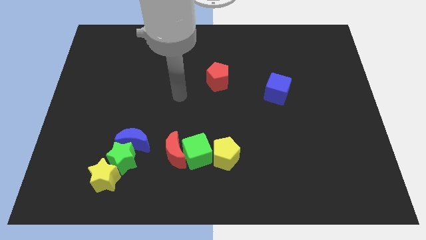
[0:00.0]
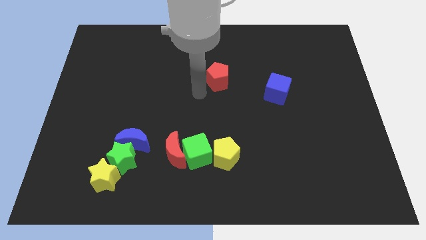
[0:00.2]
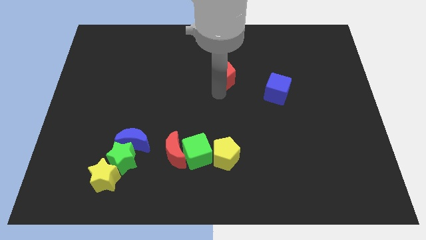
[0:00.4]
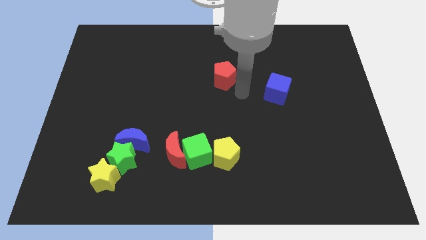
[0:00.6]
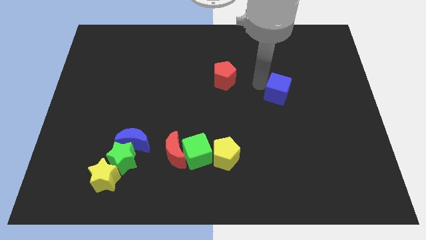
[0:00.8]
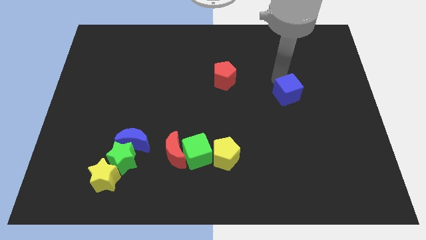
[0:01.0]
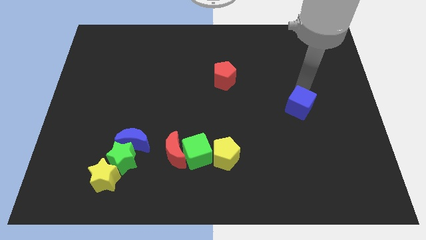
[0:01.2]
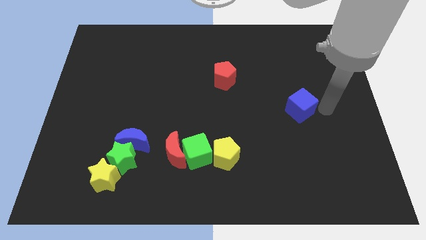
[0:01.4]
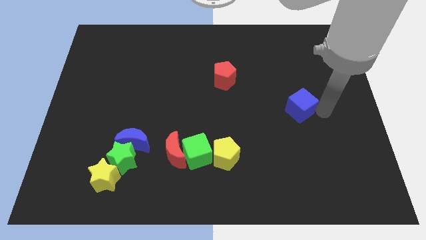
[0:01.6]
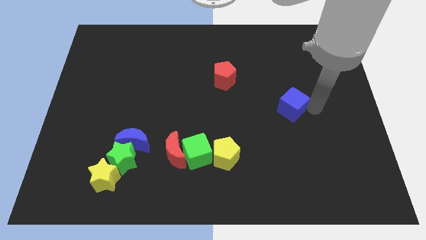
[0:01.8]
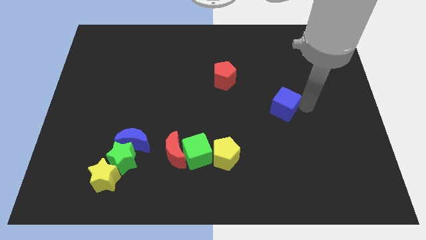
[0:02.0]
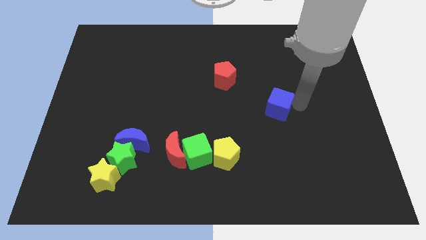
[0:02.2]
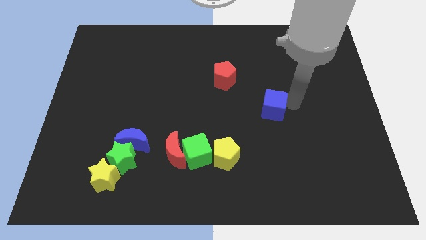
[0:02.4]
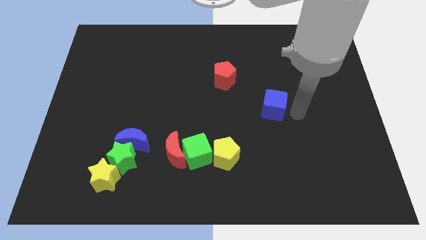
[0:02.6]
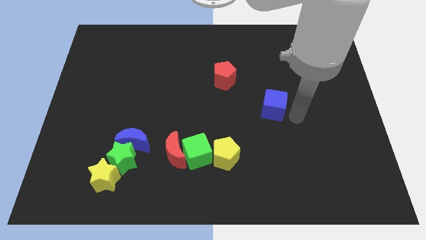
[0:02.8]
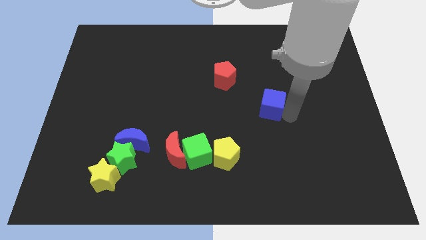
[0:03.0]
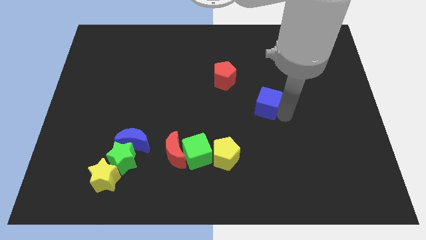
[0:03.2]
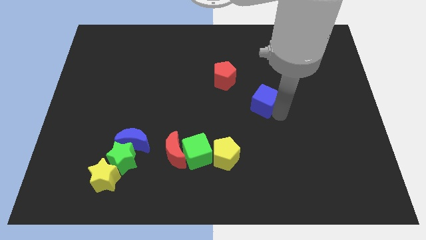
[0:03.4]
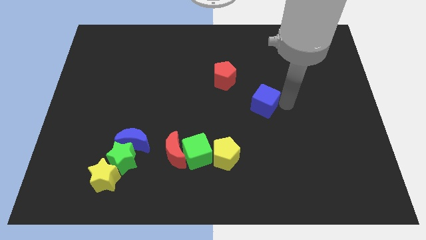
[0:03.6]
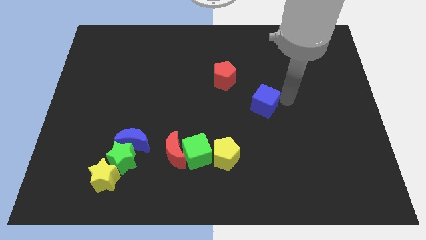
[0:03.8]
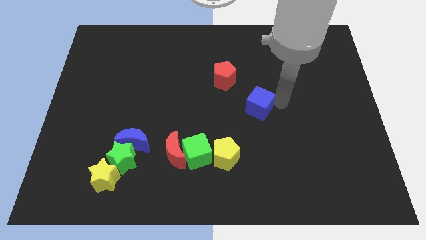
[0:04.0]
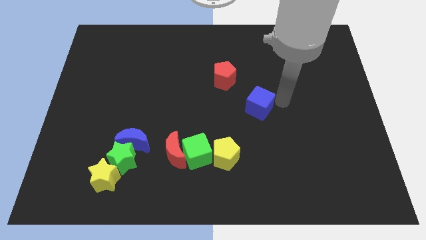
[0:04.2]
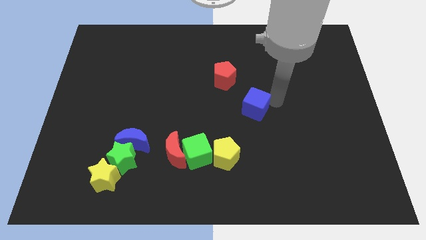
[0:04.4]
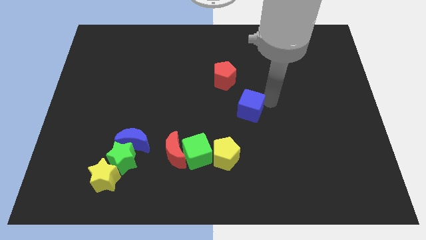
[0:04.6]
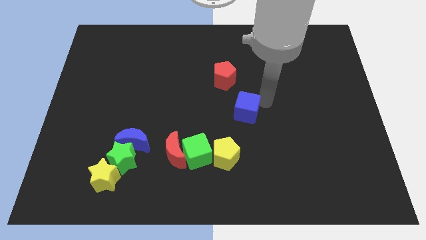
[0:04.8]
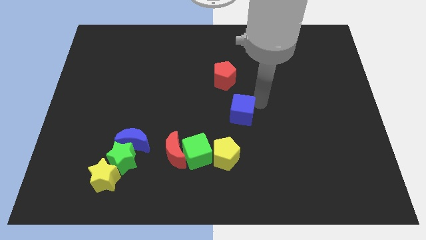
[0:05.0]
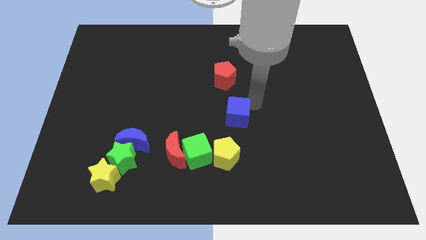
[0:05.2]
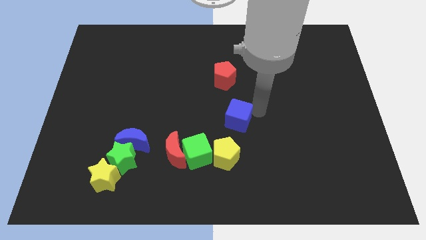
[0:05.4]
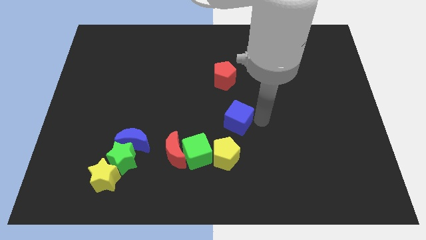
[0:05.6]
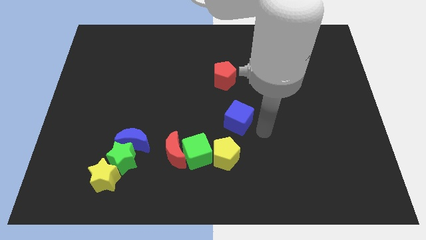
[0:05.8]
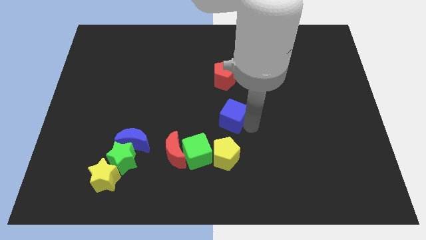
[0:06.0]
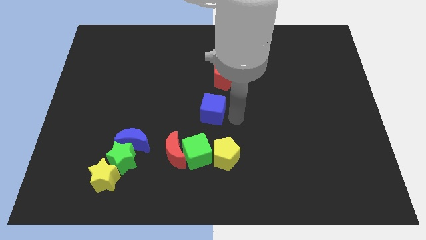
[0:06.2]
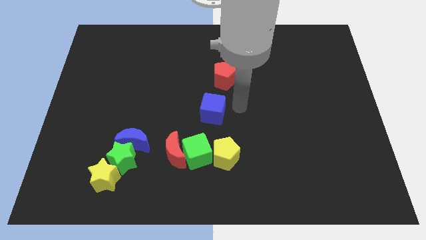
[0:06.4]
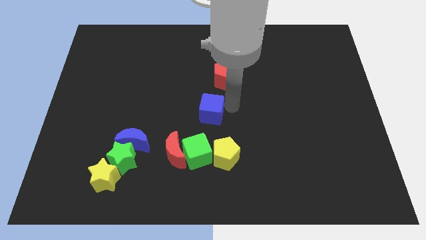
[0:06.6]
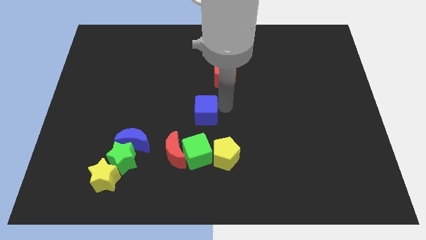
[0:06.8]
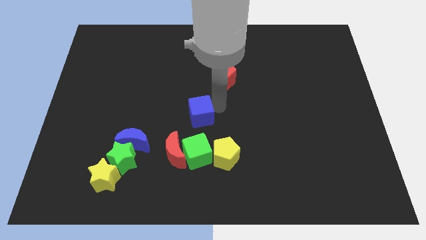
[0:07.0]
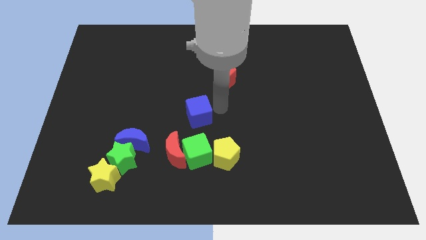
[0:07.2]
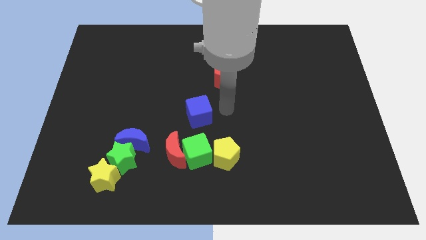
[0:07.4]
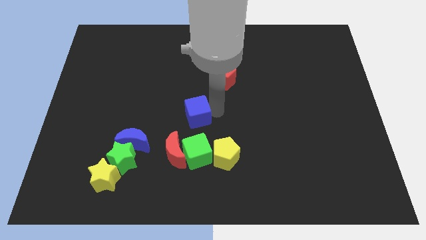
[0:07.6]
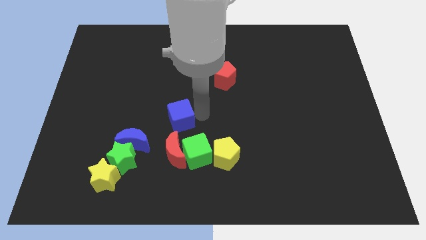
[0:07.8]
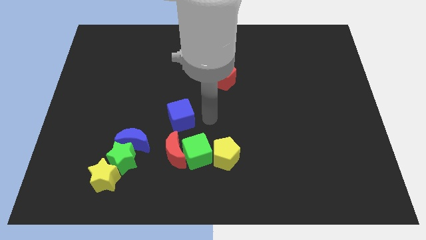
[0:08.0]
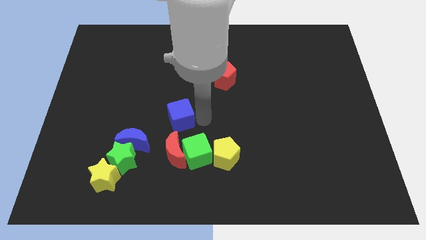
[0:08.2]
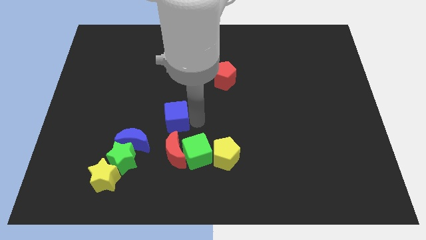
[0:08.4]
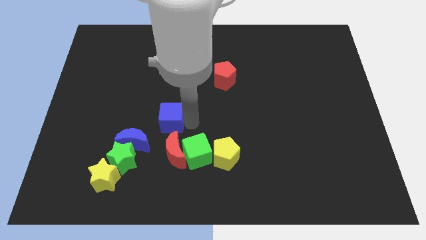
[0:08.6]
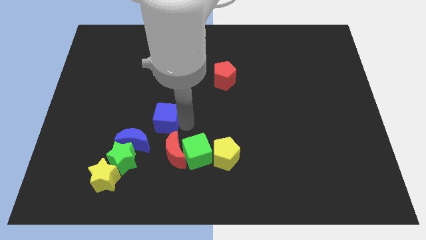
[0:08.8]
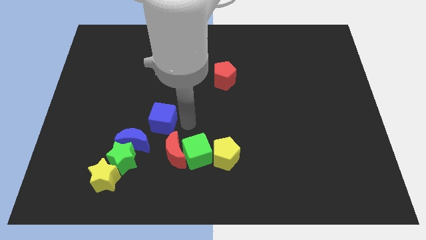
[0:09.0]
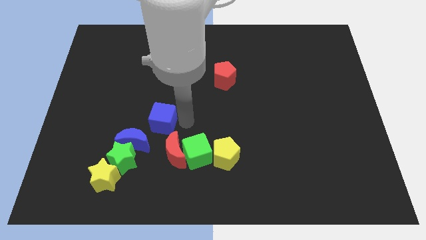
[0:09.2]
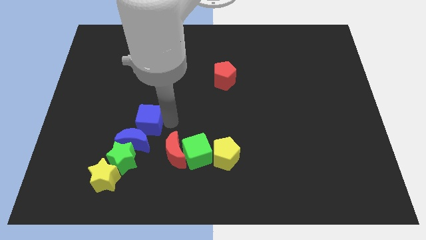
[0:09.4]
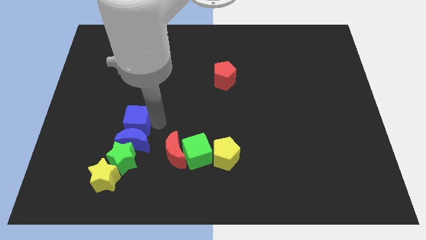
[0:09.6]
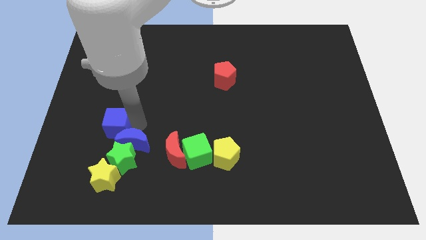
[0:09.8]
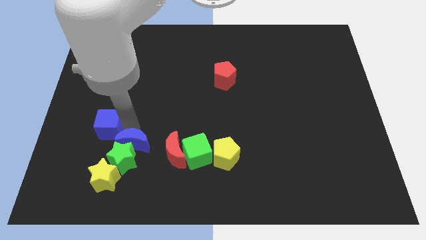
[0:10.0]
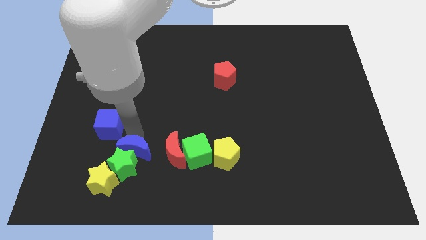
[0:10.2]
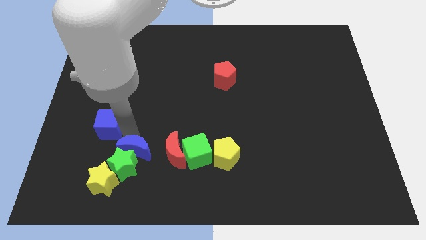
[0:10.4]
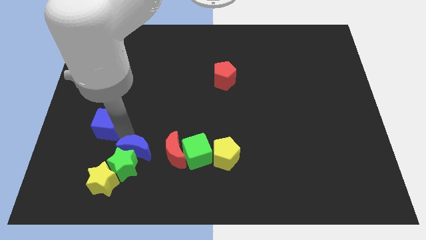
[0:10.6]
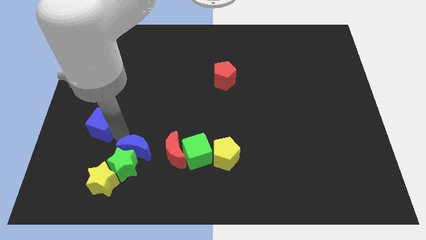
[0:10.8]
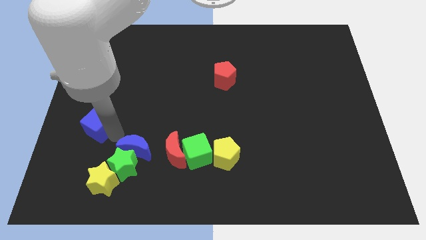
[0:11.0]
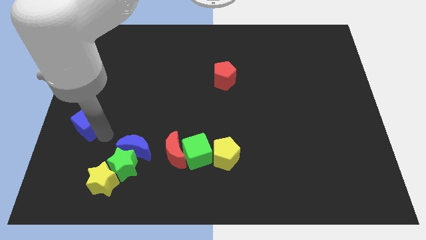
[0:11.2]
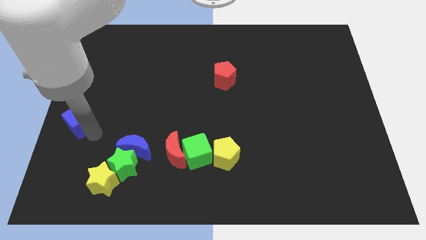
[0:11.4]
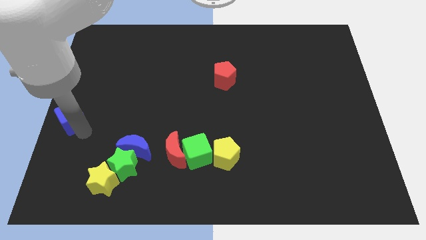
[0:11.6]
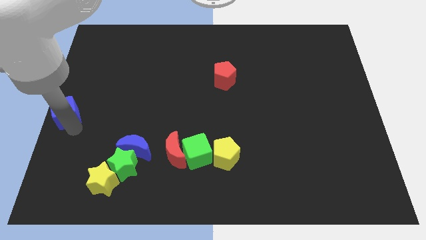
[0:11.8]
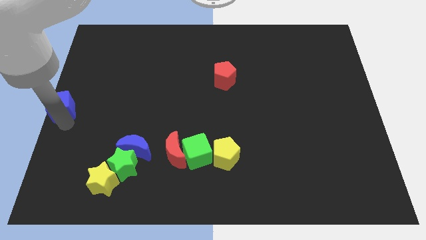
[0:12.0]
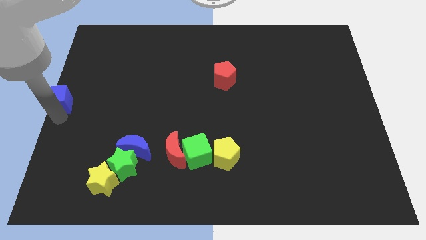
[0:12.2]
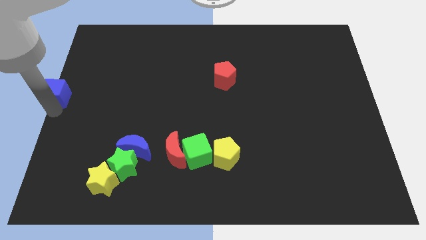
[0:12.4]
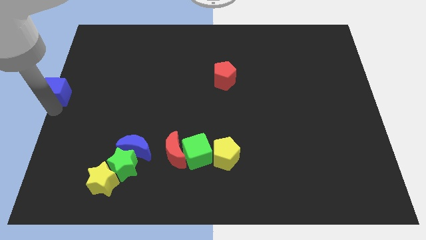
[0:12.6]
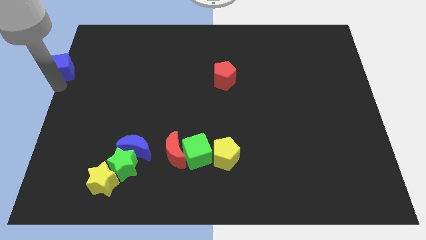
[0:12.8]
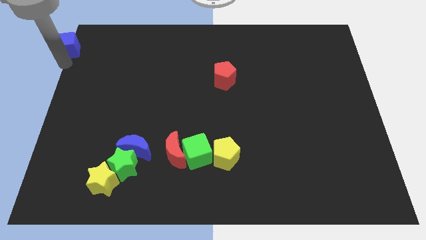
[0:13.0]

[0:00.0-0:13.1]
put the blue cube to the upper left corner

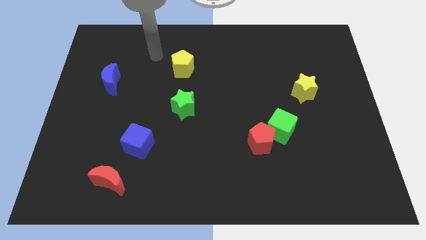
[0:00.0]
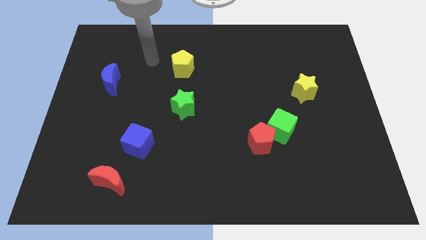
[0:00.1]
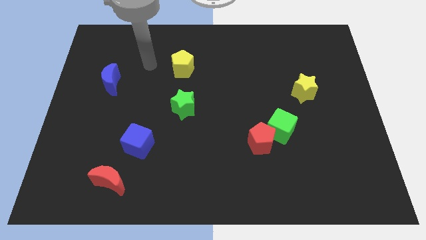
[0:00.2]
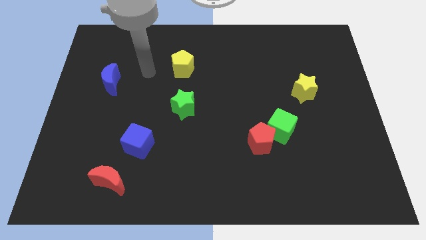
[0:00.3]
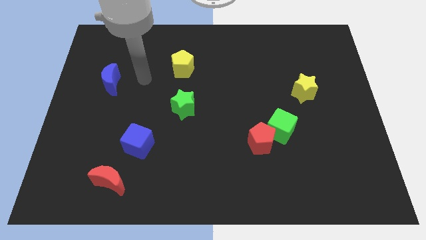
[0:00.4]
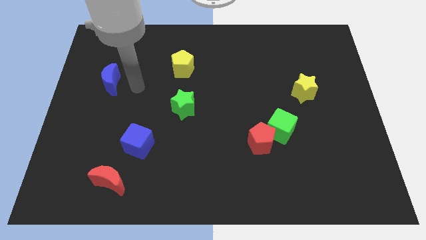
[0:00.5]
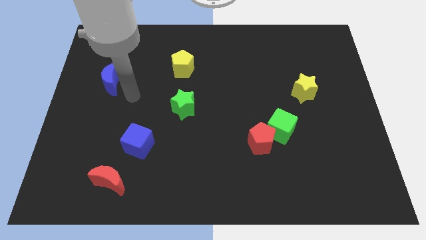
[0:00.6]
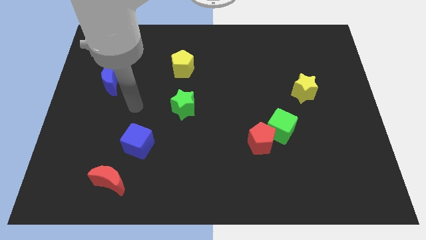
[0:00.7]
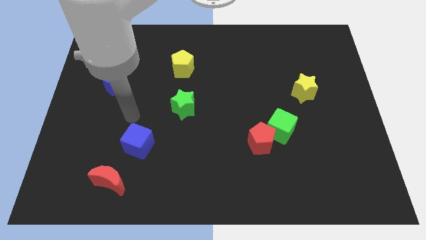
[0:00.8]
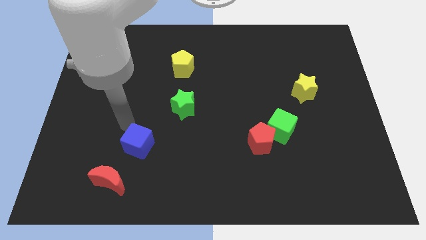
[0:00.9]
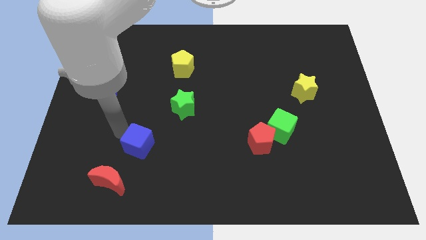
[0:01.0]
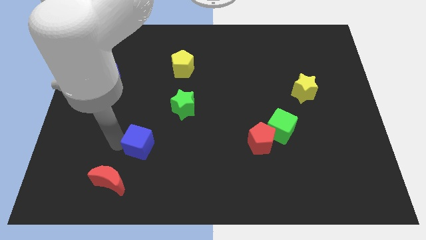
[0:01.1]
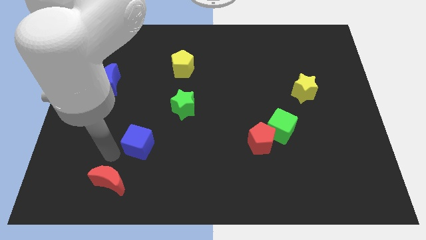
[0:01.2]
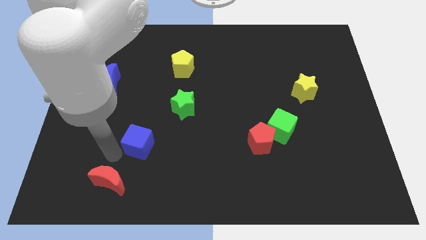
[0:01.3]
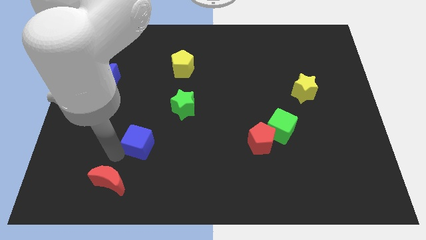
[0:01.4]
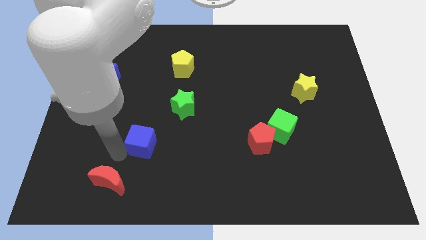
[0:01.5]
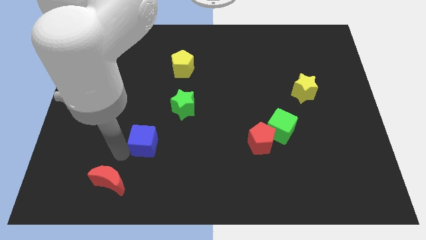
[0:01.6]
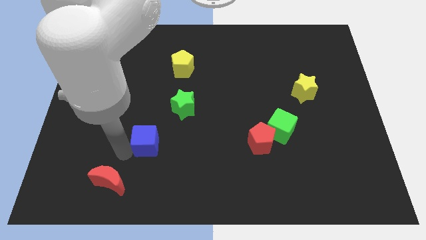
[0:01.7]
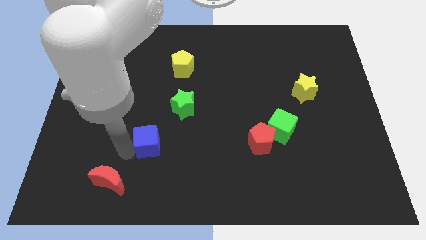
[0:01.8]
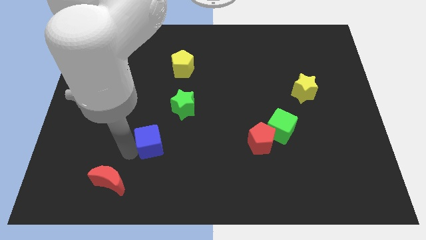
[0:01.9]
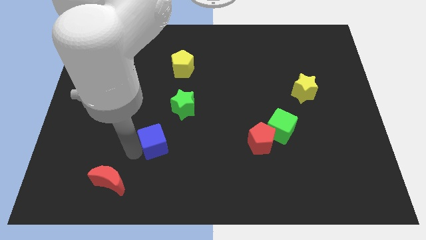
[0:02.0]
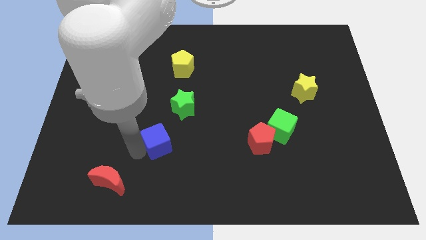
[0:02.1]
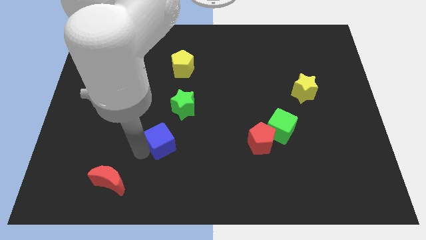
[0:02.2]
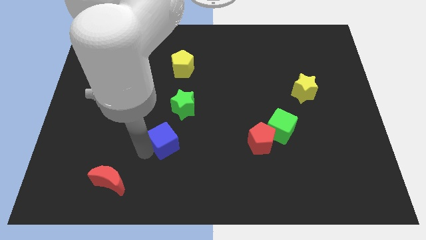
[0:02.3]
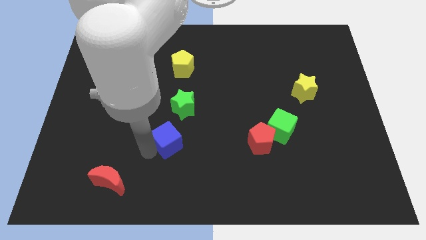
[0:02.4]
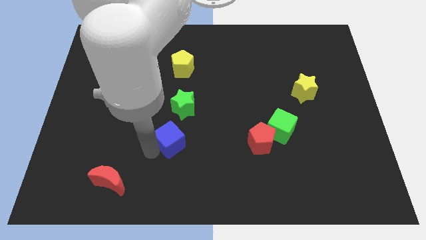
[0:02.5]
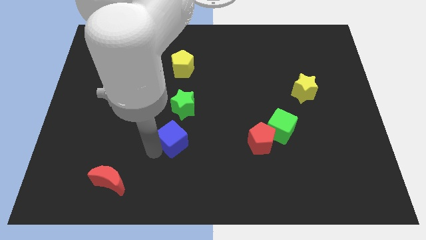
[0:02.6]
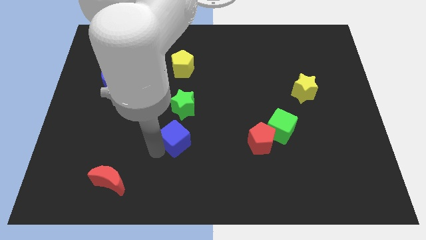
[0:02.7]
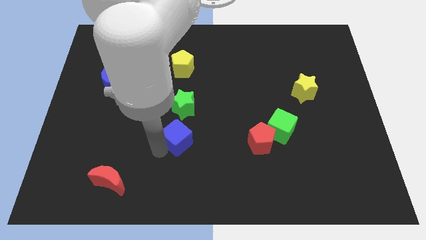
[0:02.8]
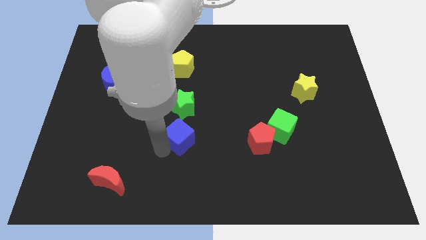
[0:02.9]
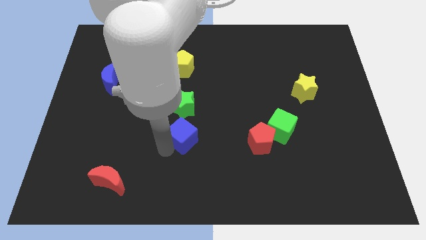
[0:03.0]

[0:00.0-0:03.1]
push the blue cube to the center
